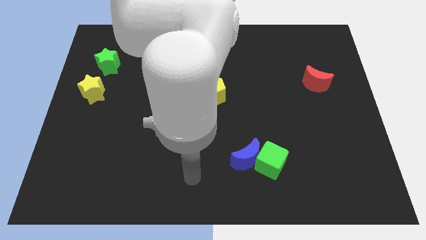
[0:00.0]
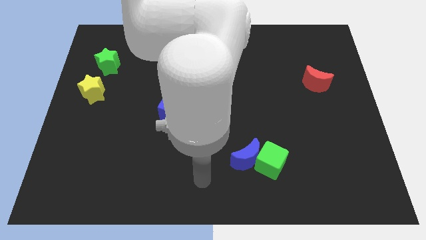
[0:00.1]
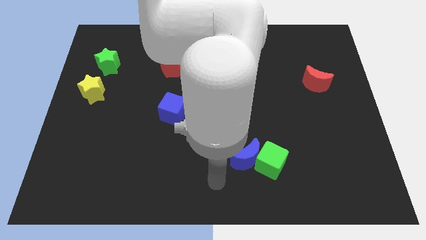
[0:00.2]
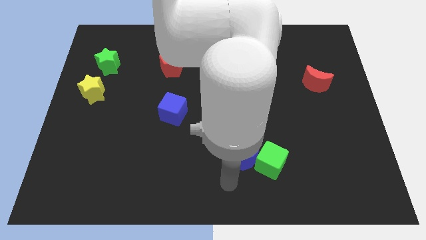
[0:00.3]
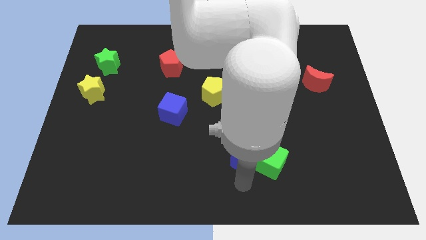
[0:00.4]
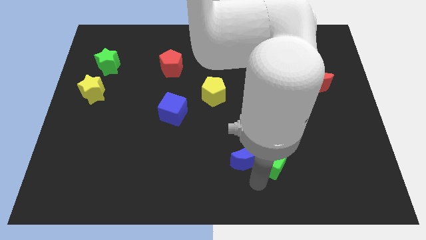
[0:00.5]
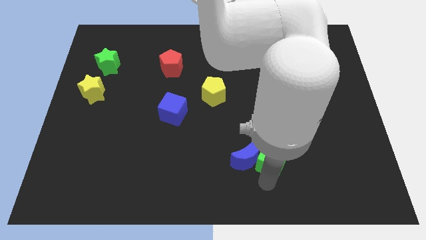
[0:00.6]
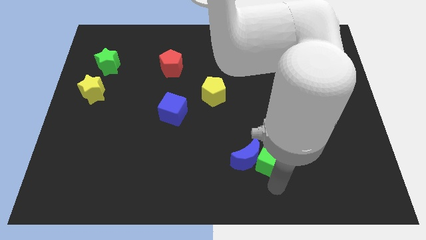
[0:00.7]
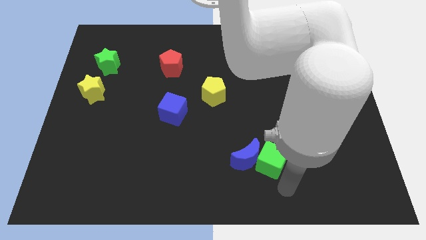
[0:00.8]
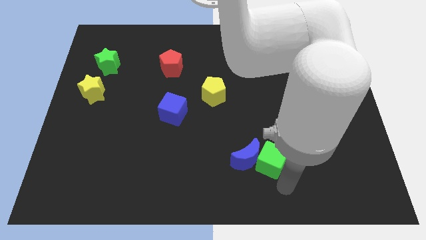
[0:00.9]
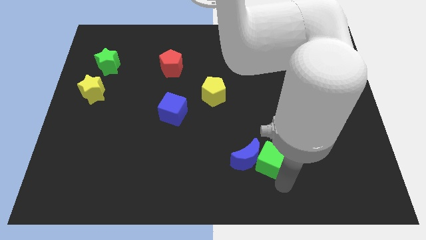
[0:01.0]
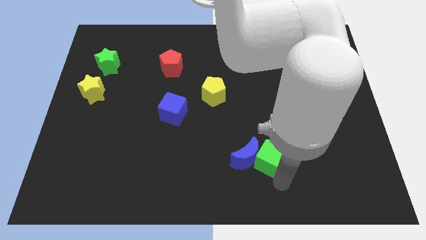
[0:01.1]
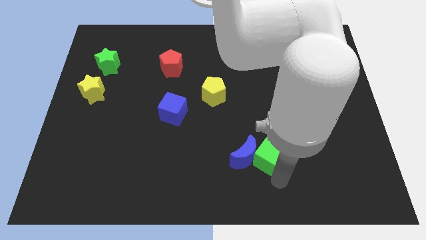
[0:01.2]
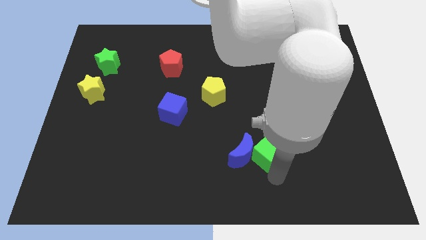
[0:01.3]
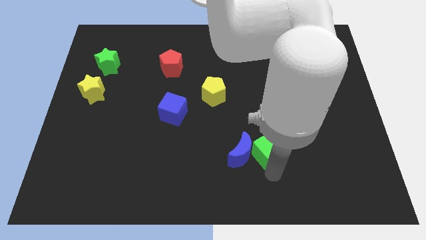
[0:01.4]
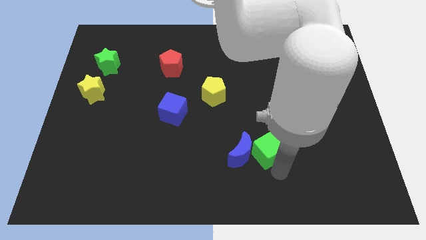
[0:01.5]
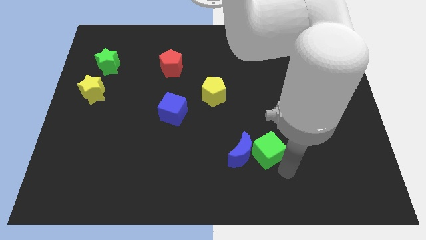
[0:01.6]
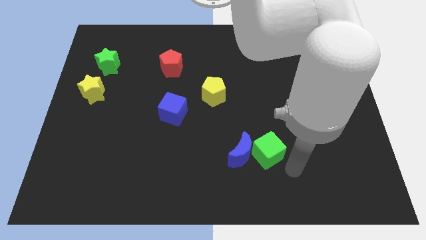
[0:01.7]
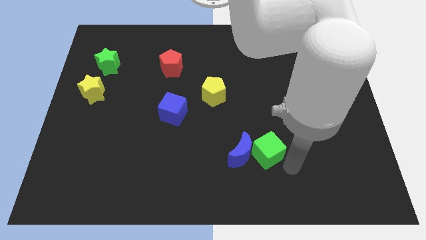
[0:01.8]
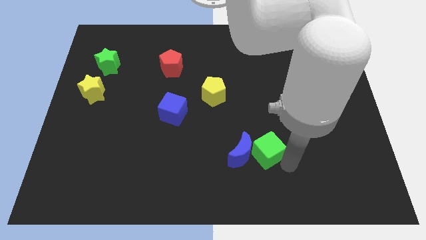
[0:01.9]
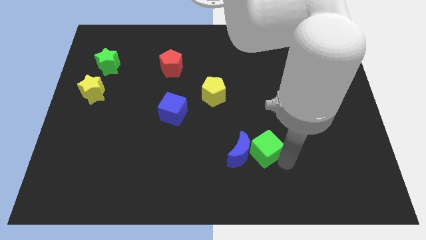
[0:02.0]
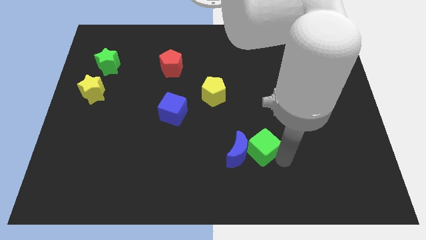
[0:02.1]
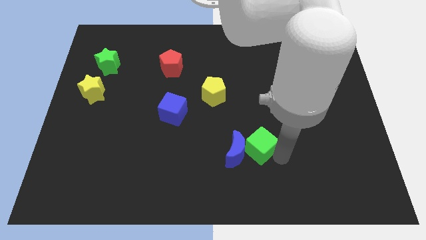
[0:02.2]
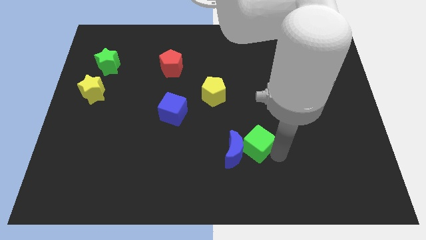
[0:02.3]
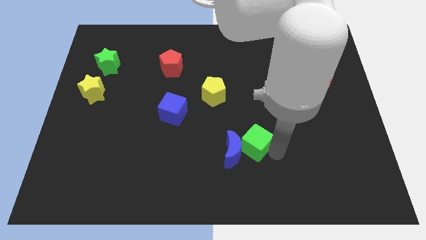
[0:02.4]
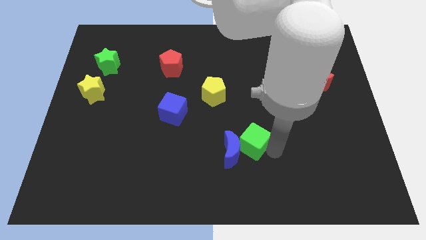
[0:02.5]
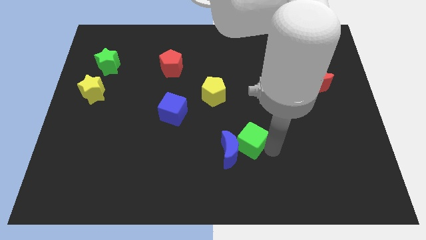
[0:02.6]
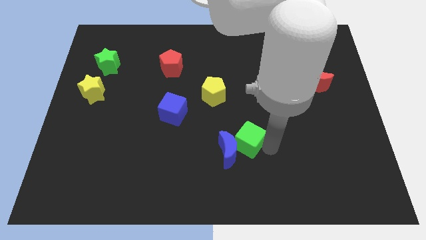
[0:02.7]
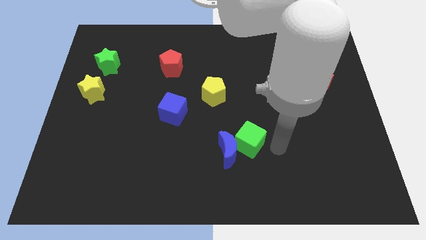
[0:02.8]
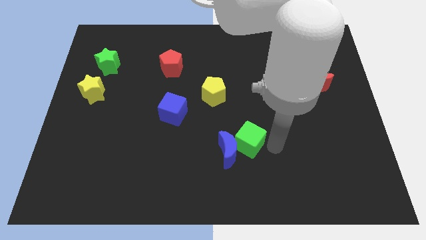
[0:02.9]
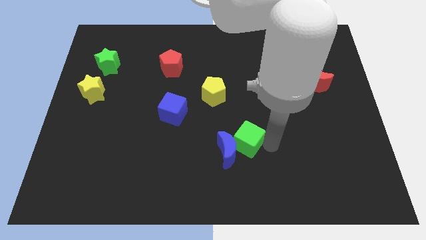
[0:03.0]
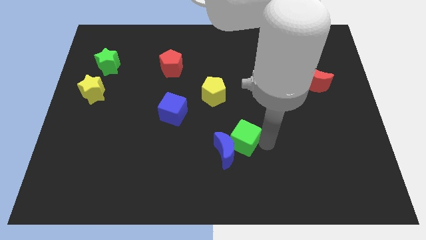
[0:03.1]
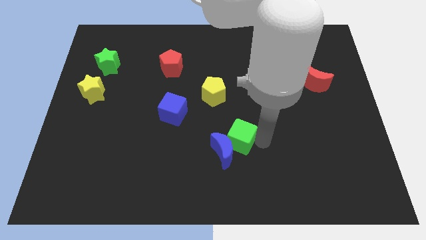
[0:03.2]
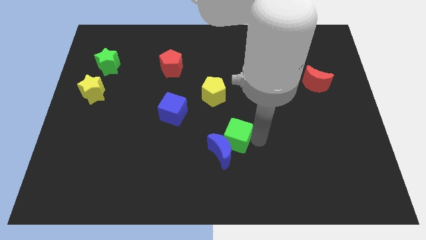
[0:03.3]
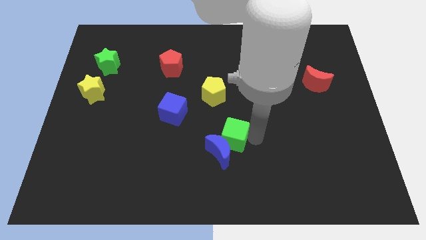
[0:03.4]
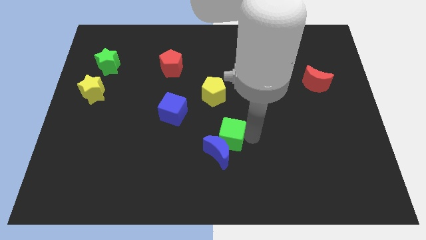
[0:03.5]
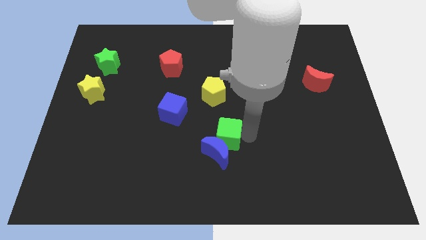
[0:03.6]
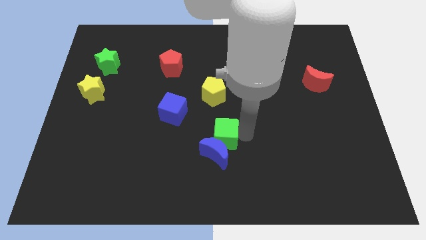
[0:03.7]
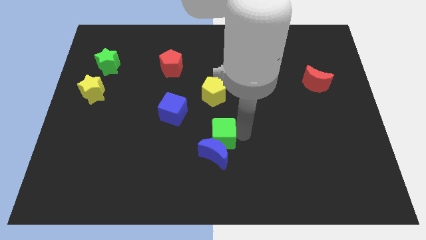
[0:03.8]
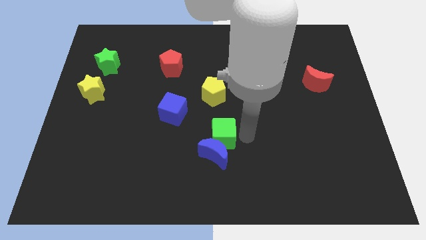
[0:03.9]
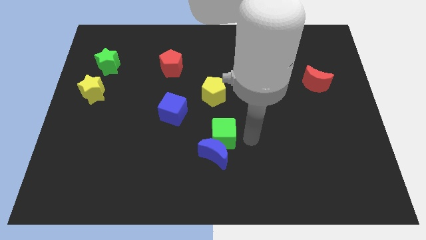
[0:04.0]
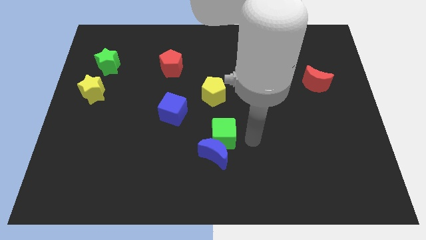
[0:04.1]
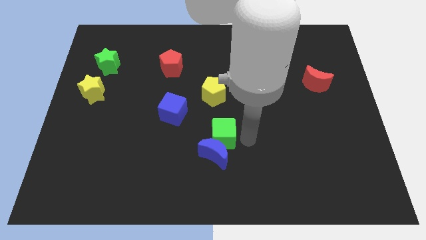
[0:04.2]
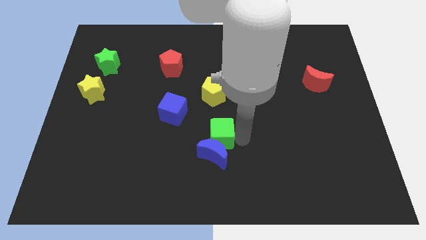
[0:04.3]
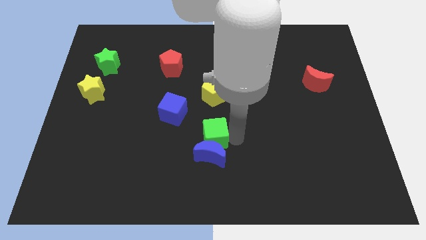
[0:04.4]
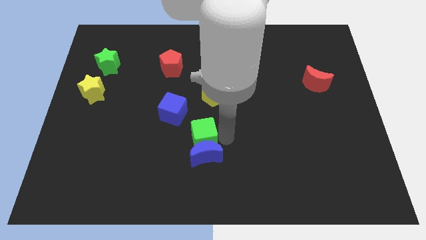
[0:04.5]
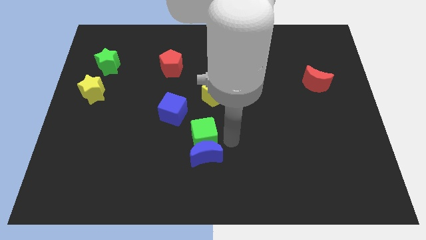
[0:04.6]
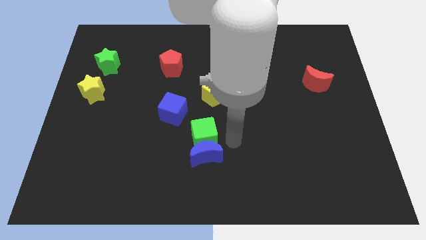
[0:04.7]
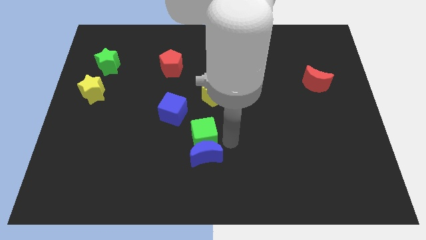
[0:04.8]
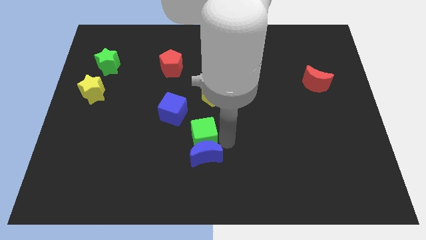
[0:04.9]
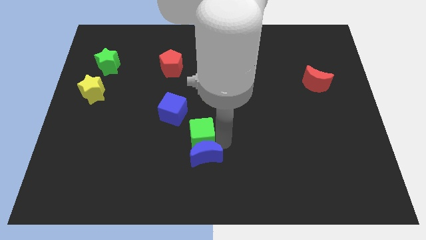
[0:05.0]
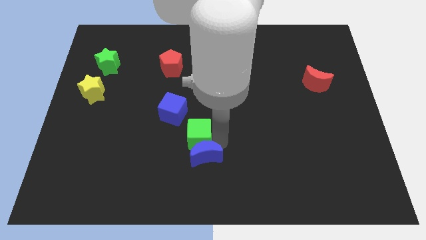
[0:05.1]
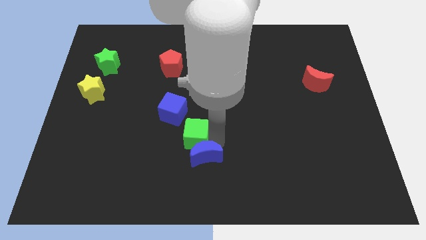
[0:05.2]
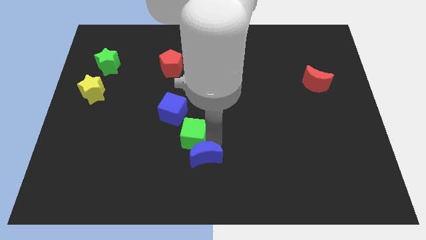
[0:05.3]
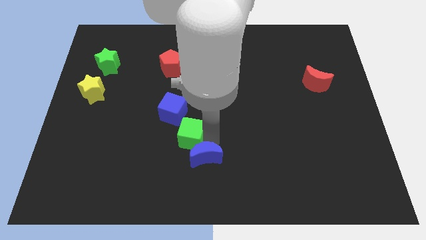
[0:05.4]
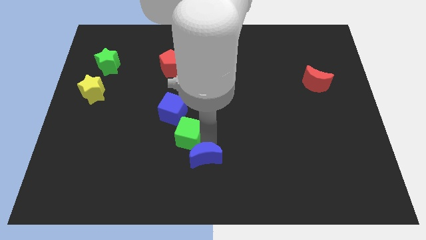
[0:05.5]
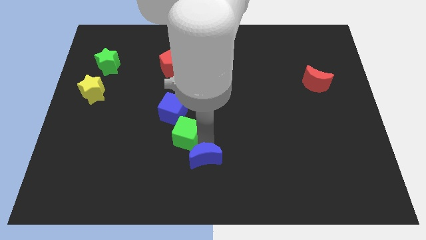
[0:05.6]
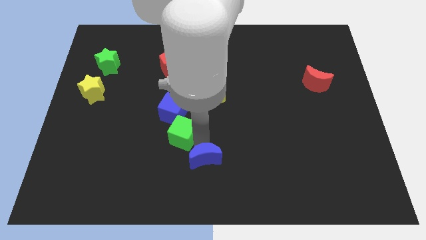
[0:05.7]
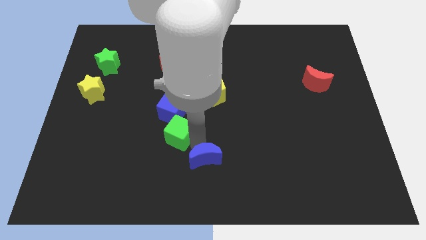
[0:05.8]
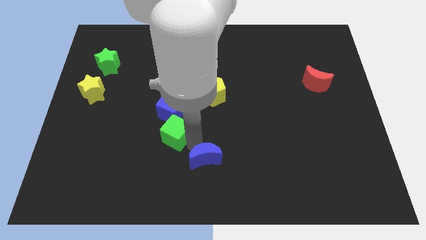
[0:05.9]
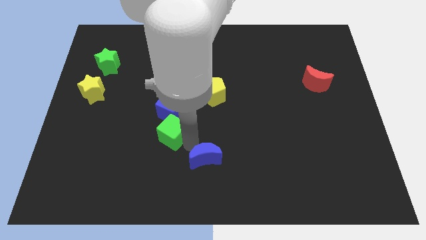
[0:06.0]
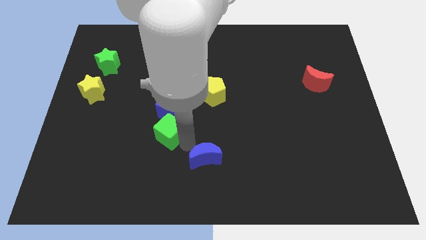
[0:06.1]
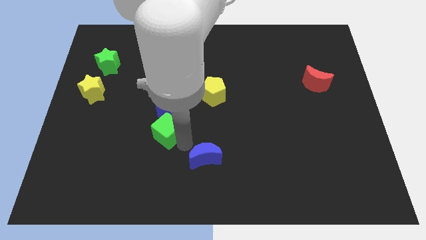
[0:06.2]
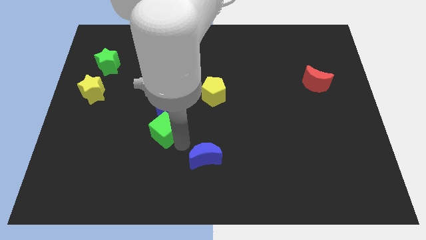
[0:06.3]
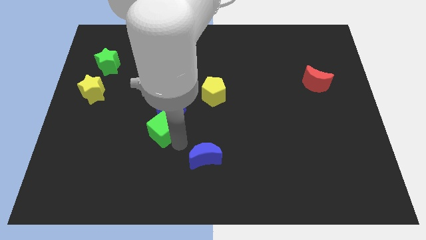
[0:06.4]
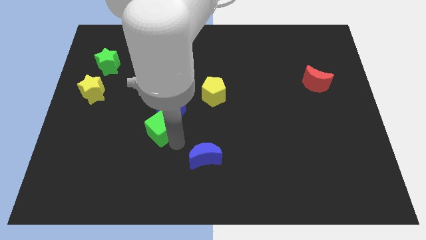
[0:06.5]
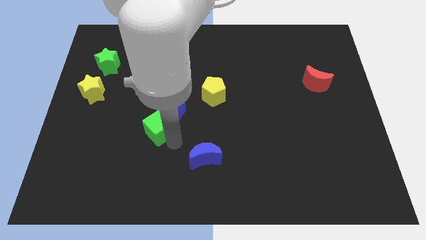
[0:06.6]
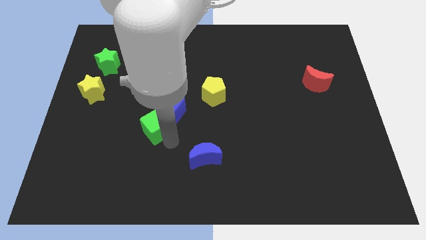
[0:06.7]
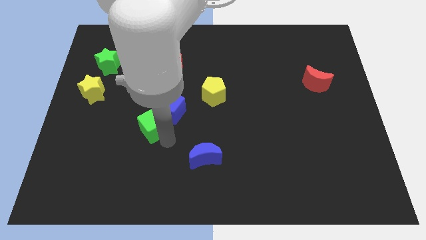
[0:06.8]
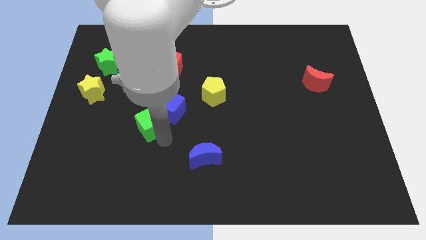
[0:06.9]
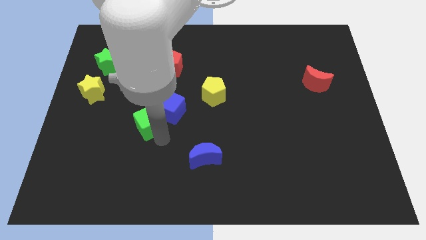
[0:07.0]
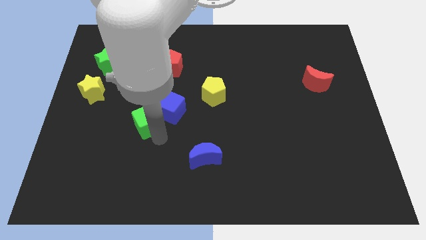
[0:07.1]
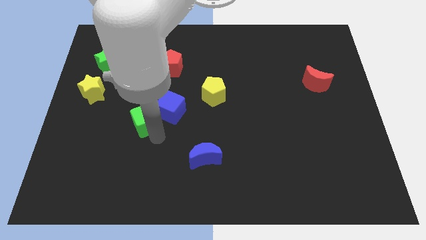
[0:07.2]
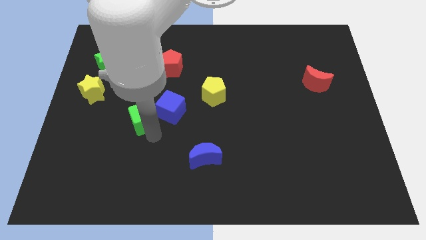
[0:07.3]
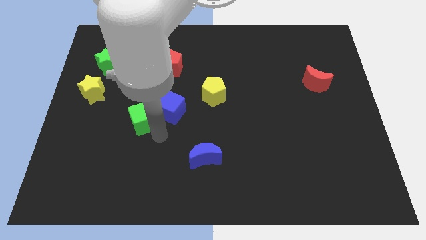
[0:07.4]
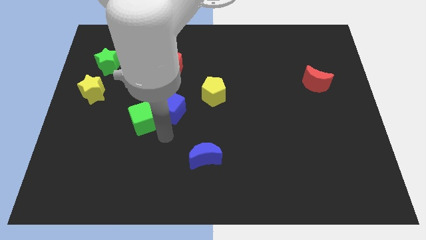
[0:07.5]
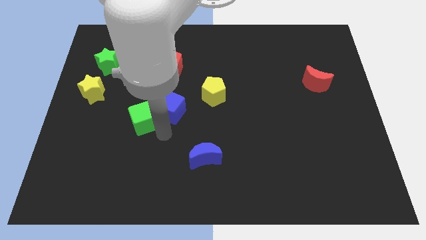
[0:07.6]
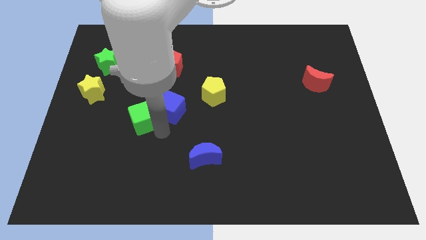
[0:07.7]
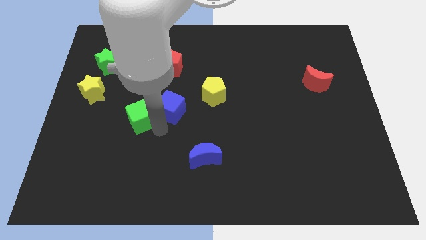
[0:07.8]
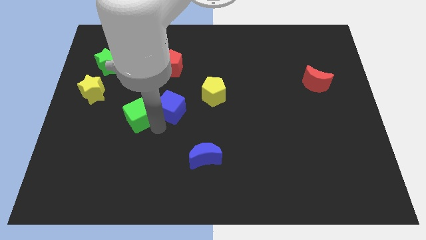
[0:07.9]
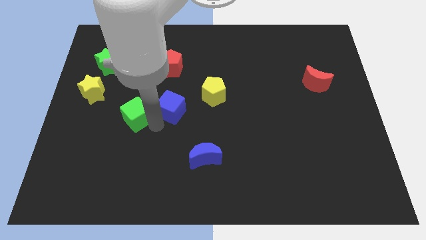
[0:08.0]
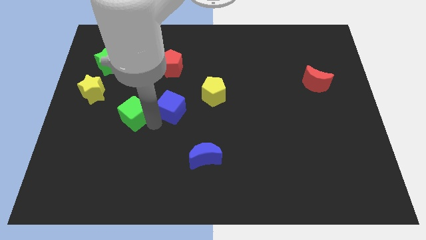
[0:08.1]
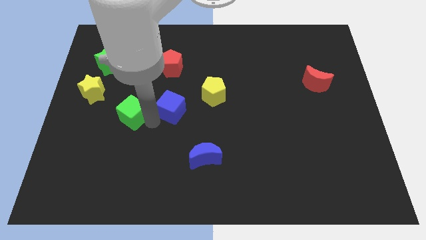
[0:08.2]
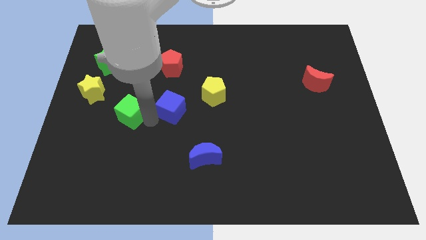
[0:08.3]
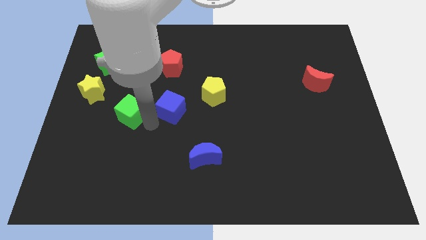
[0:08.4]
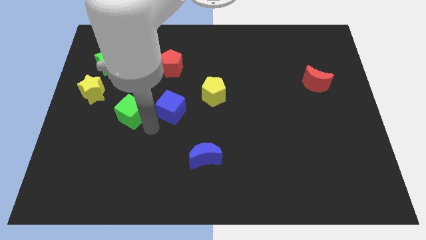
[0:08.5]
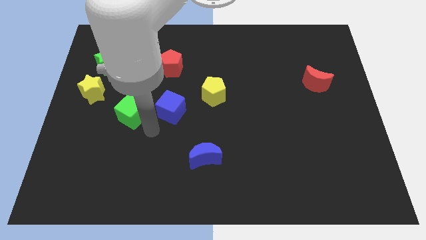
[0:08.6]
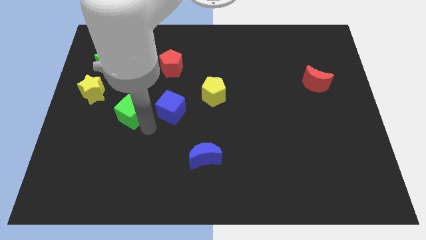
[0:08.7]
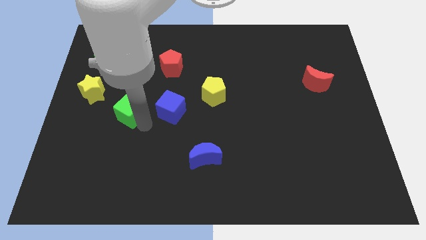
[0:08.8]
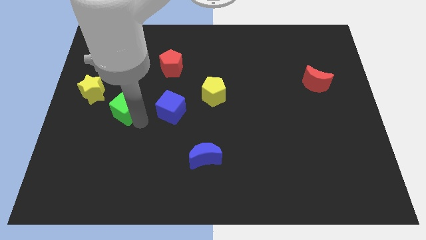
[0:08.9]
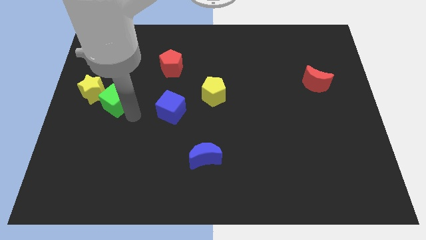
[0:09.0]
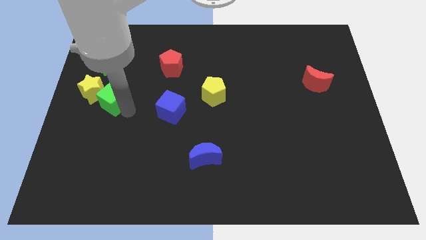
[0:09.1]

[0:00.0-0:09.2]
slide the green cube to the yellow star
